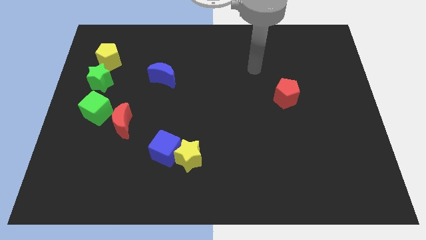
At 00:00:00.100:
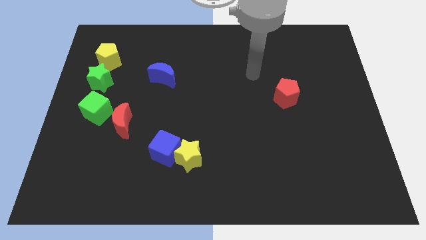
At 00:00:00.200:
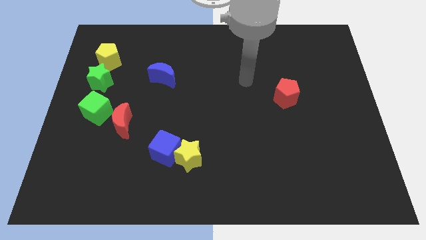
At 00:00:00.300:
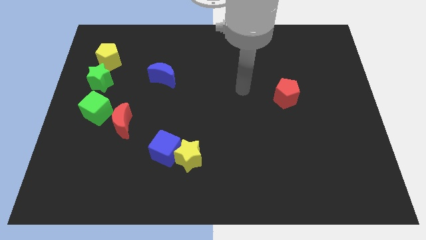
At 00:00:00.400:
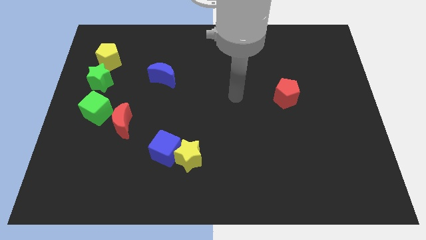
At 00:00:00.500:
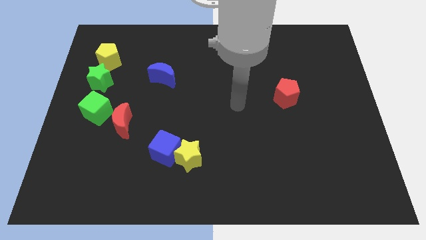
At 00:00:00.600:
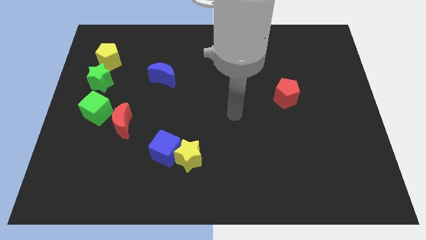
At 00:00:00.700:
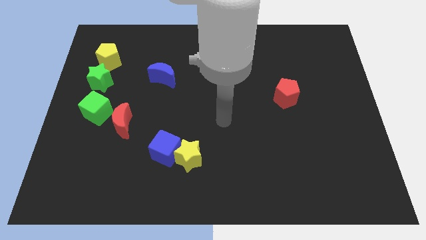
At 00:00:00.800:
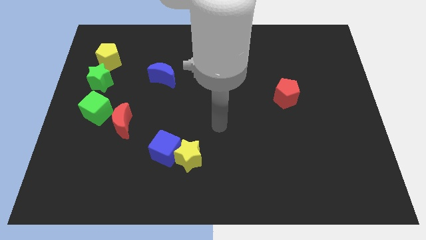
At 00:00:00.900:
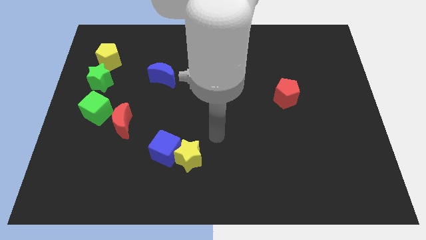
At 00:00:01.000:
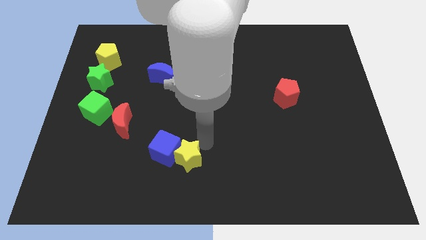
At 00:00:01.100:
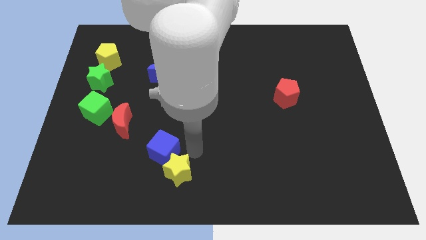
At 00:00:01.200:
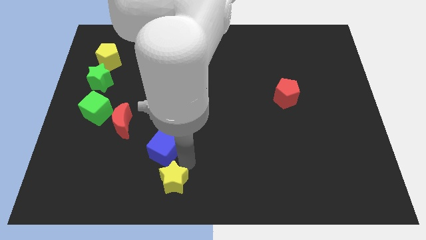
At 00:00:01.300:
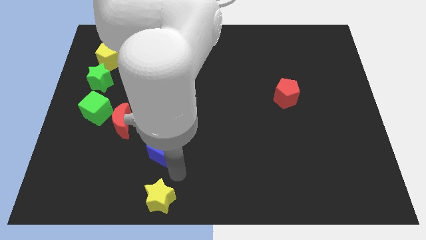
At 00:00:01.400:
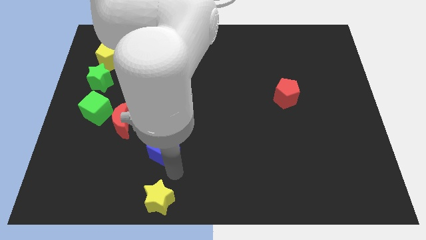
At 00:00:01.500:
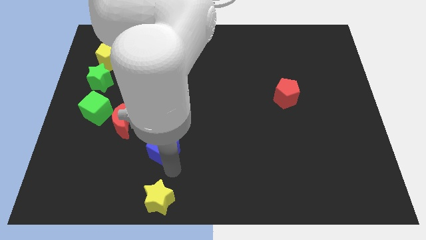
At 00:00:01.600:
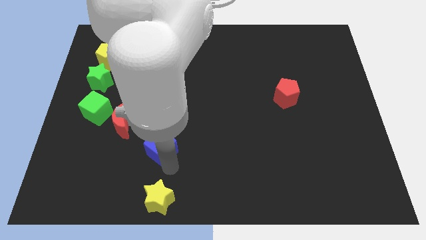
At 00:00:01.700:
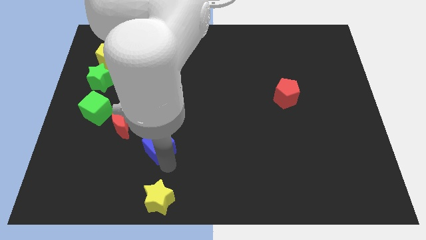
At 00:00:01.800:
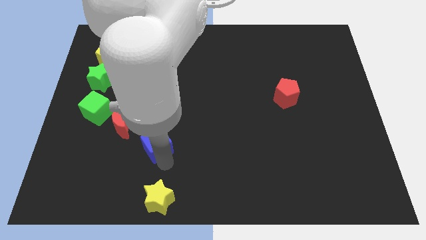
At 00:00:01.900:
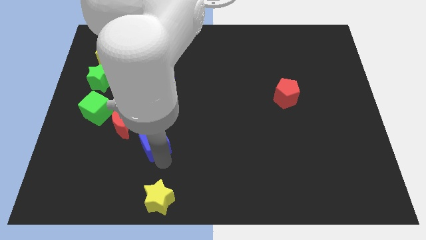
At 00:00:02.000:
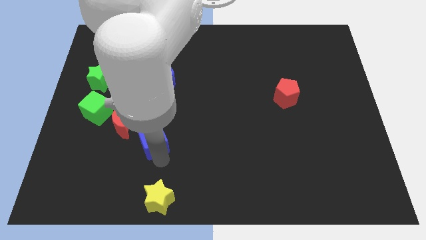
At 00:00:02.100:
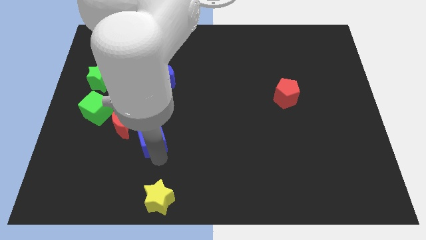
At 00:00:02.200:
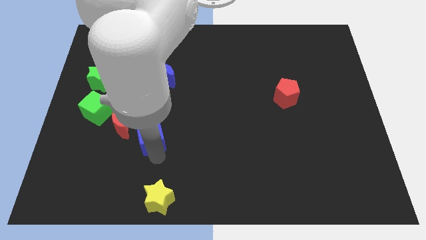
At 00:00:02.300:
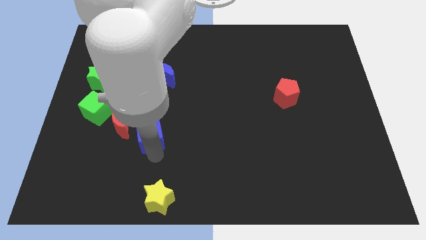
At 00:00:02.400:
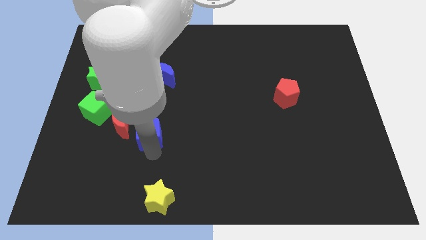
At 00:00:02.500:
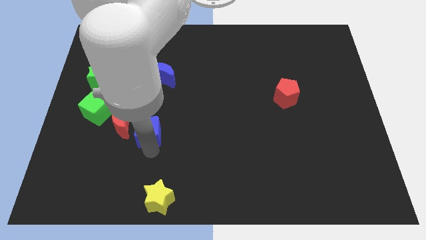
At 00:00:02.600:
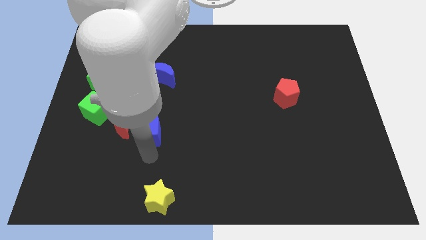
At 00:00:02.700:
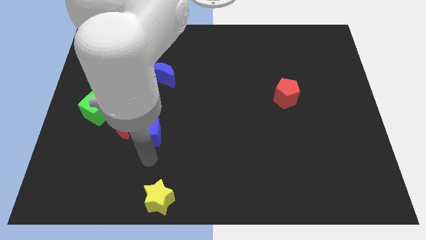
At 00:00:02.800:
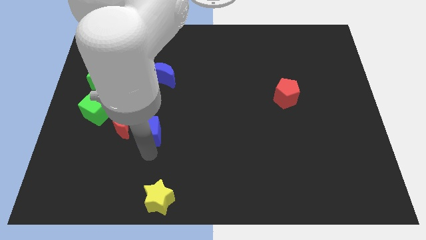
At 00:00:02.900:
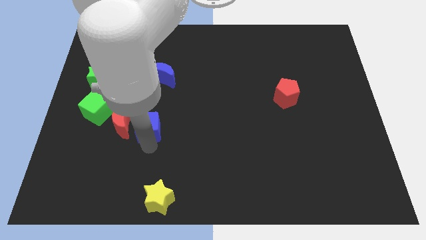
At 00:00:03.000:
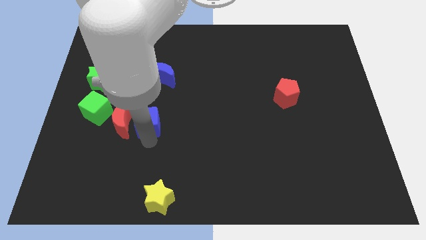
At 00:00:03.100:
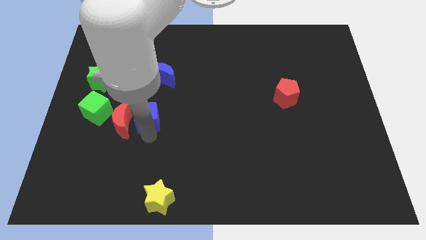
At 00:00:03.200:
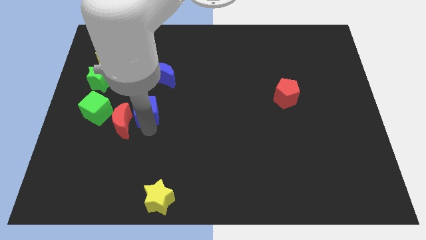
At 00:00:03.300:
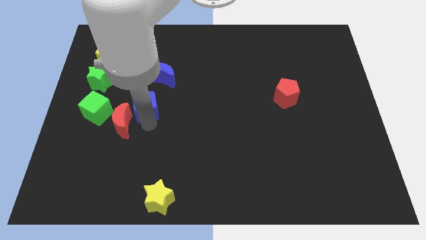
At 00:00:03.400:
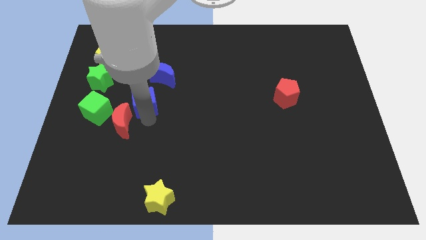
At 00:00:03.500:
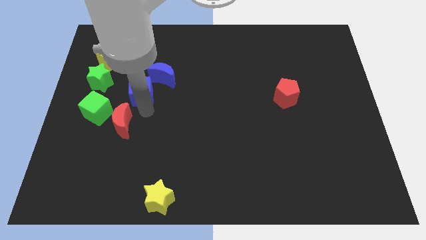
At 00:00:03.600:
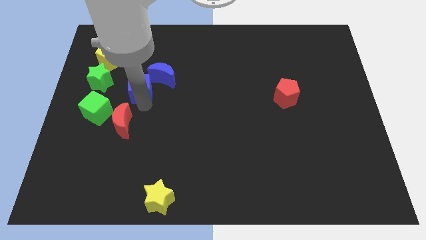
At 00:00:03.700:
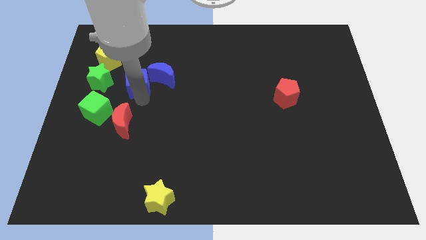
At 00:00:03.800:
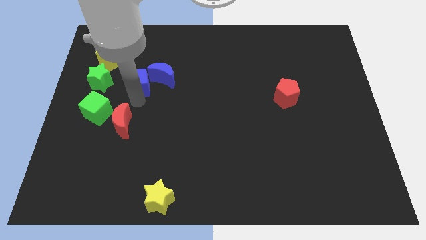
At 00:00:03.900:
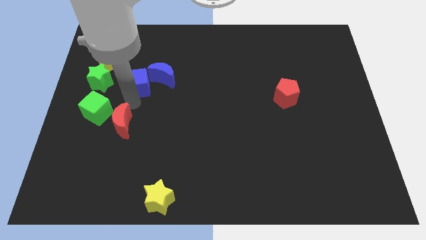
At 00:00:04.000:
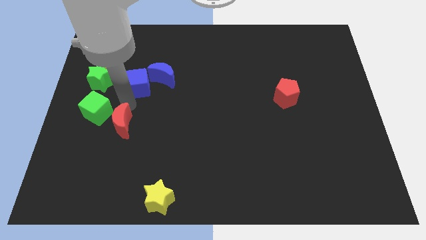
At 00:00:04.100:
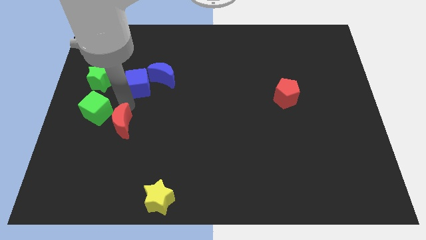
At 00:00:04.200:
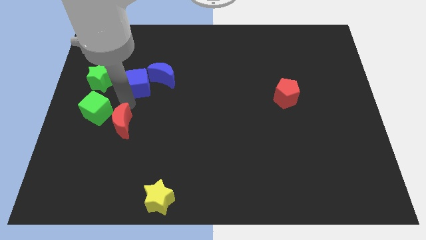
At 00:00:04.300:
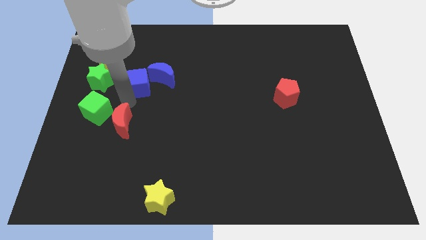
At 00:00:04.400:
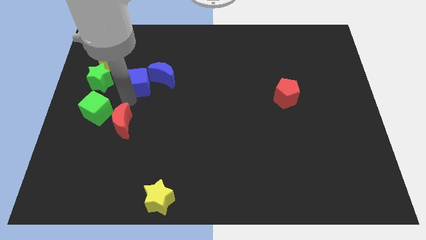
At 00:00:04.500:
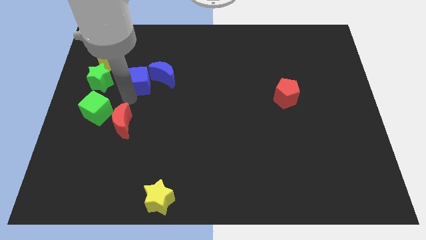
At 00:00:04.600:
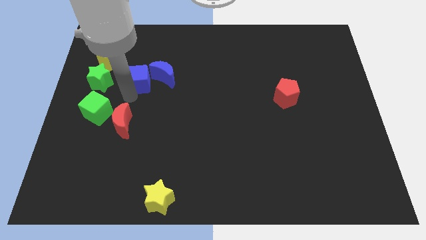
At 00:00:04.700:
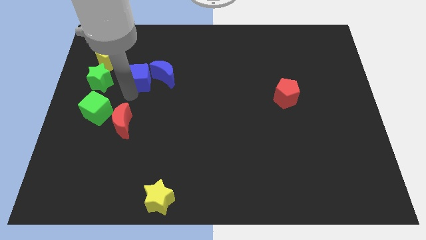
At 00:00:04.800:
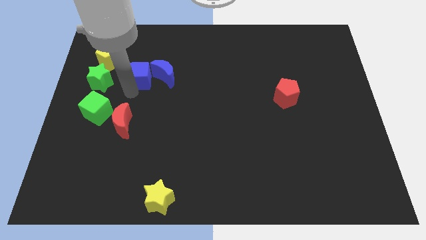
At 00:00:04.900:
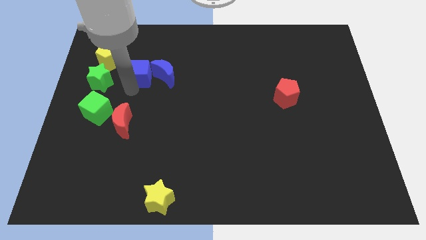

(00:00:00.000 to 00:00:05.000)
move the blue cube to the top left of the blue moon

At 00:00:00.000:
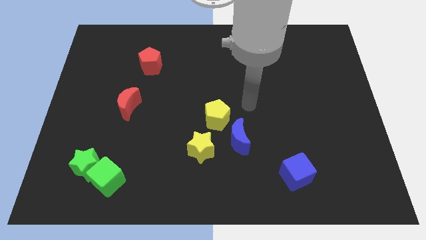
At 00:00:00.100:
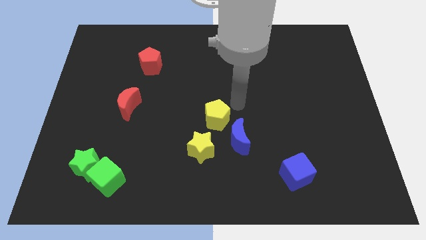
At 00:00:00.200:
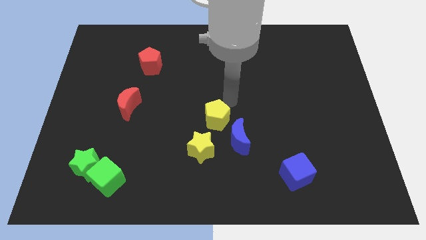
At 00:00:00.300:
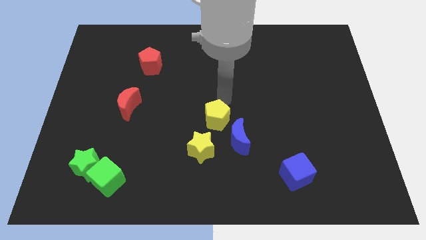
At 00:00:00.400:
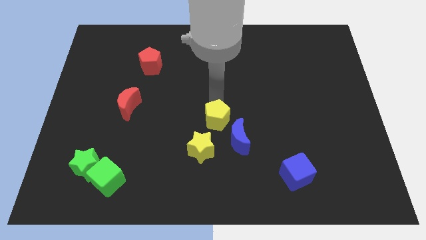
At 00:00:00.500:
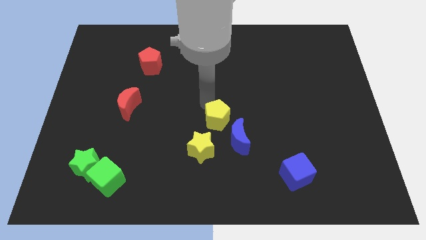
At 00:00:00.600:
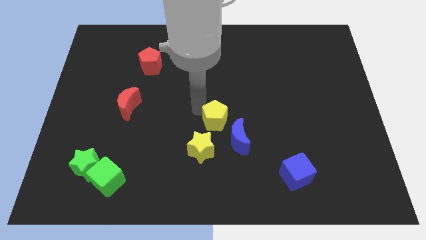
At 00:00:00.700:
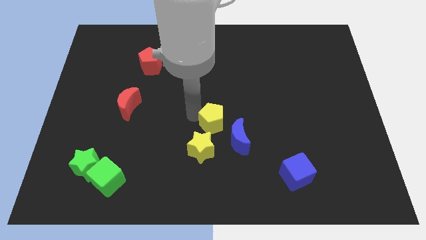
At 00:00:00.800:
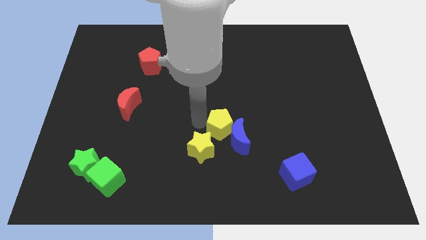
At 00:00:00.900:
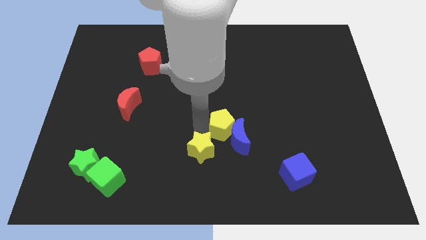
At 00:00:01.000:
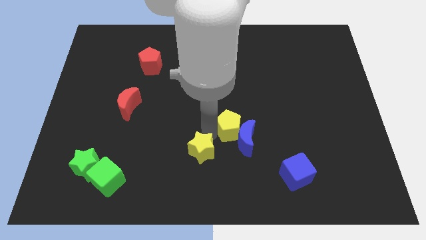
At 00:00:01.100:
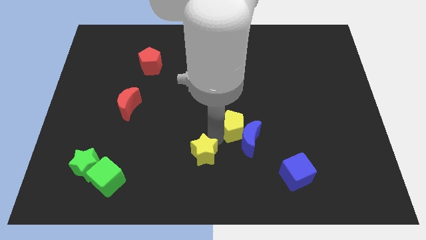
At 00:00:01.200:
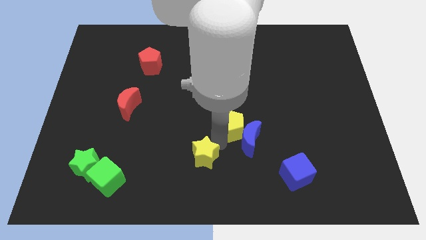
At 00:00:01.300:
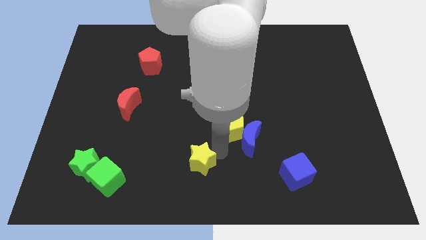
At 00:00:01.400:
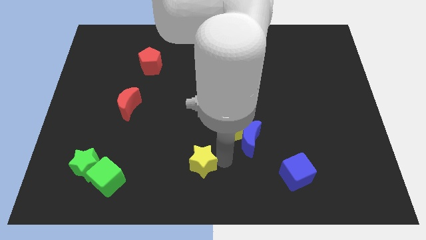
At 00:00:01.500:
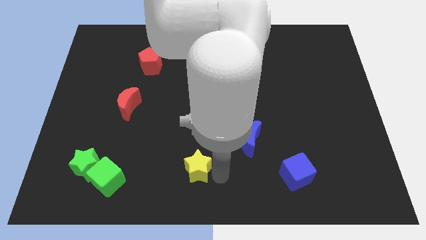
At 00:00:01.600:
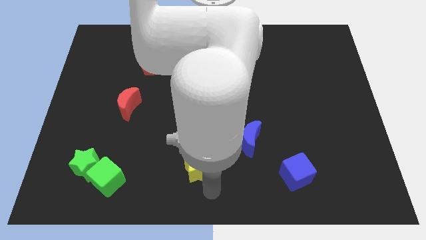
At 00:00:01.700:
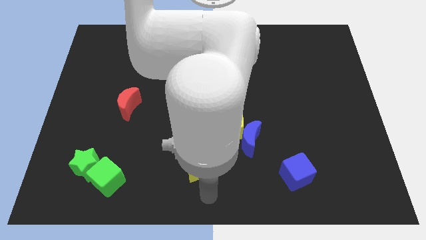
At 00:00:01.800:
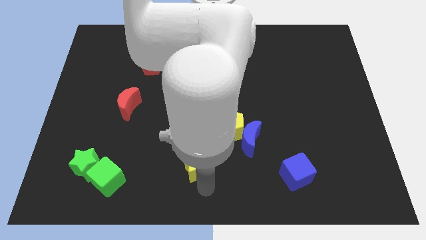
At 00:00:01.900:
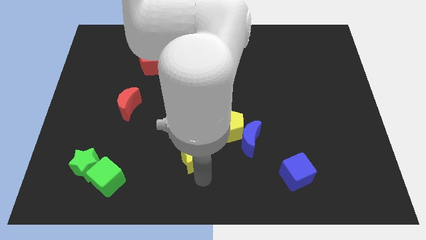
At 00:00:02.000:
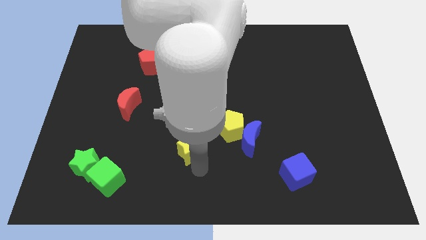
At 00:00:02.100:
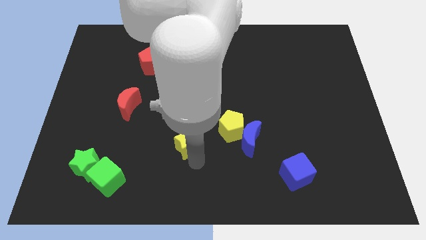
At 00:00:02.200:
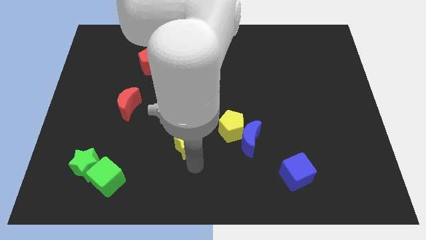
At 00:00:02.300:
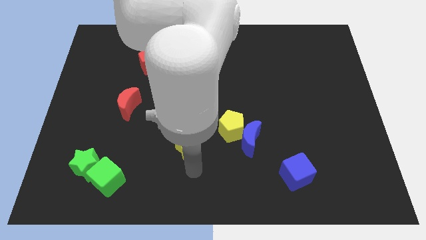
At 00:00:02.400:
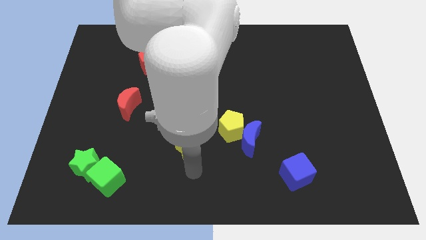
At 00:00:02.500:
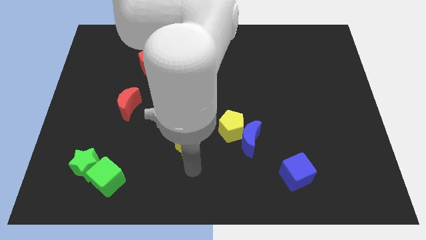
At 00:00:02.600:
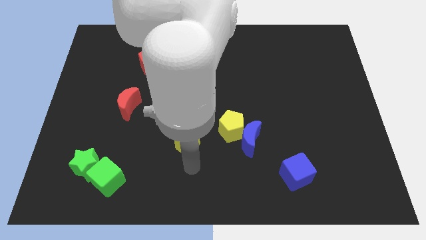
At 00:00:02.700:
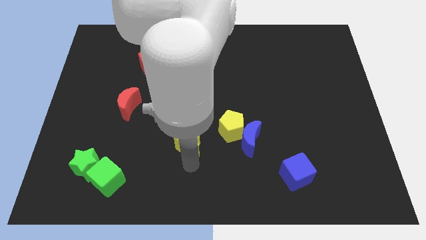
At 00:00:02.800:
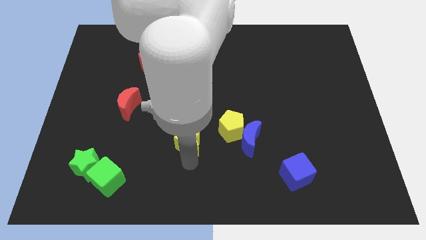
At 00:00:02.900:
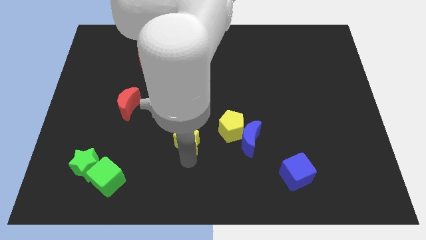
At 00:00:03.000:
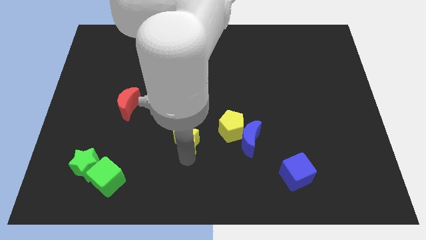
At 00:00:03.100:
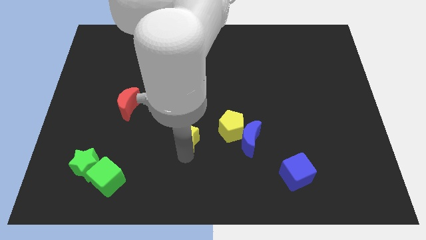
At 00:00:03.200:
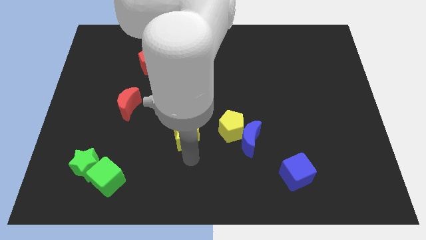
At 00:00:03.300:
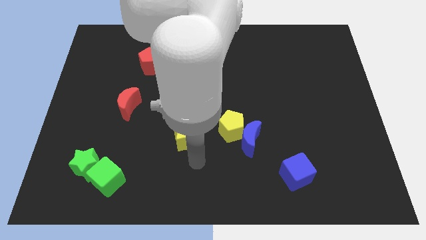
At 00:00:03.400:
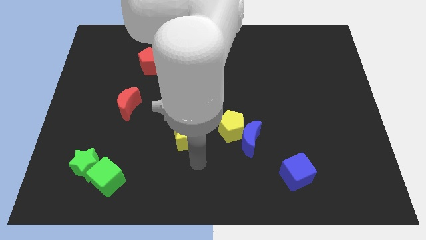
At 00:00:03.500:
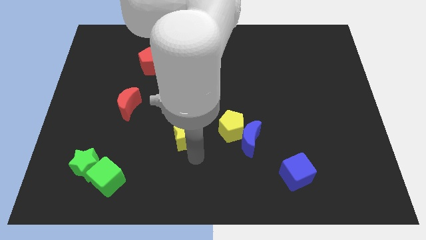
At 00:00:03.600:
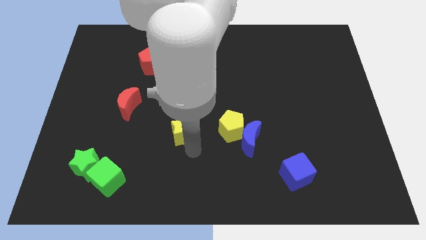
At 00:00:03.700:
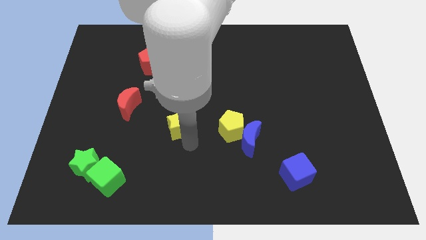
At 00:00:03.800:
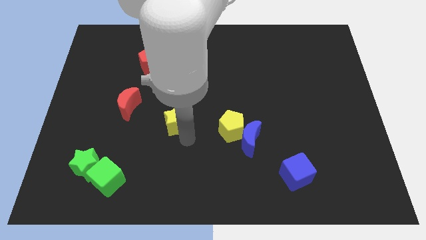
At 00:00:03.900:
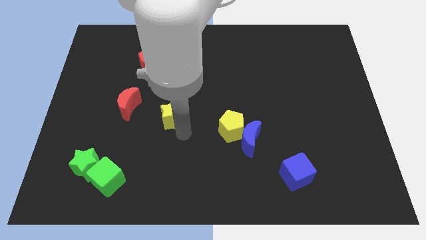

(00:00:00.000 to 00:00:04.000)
push the yellow star right of the red moon
